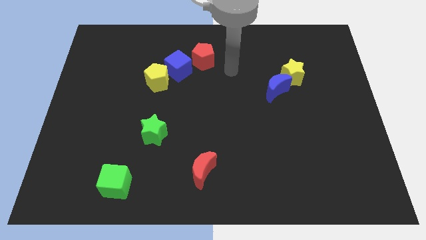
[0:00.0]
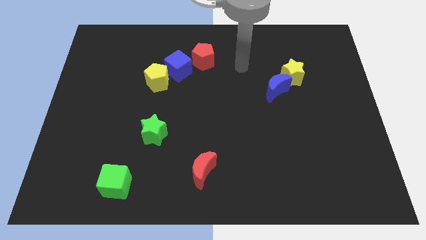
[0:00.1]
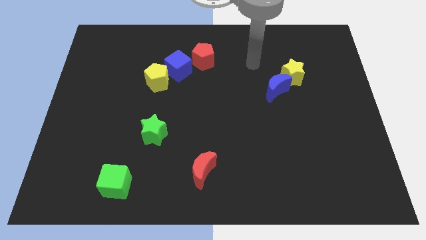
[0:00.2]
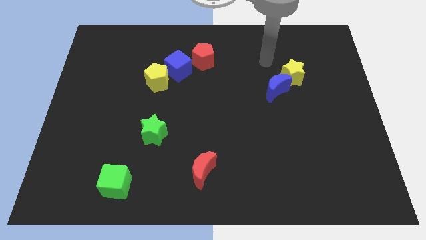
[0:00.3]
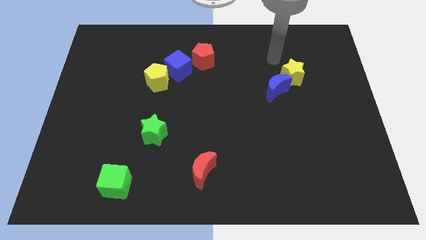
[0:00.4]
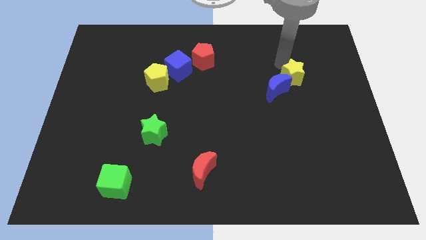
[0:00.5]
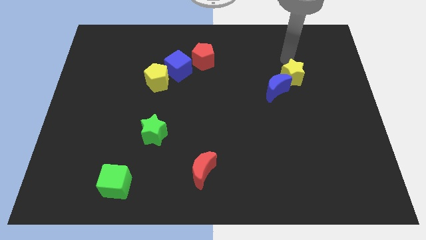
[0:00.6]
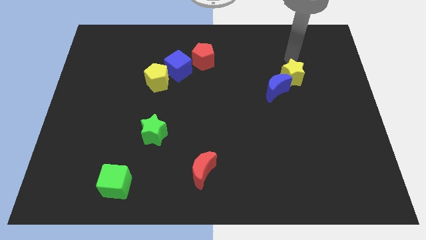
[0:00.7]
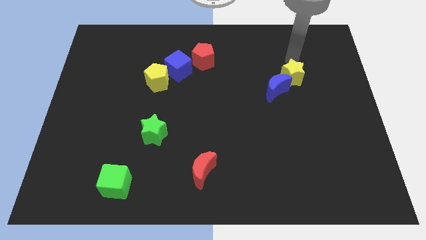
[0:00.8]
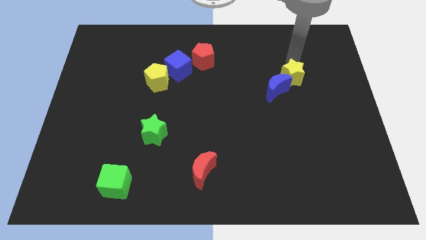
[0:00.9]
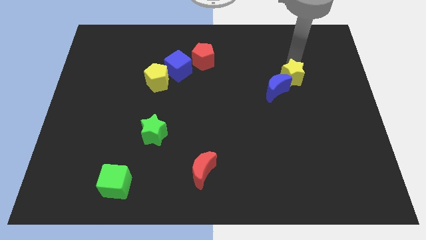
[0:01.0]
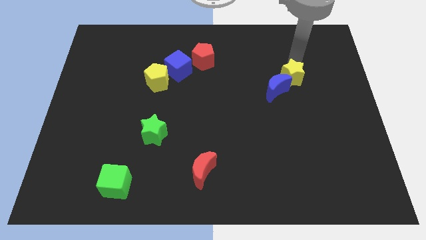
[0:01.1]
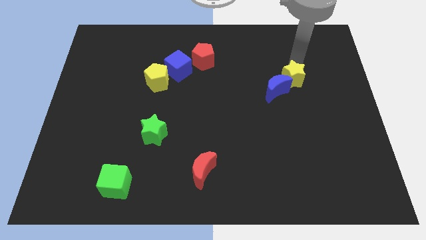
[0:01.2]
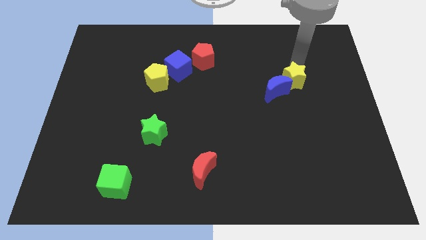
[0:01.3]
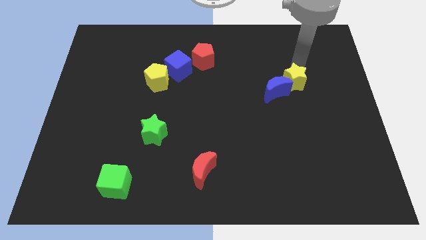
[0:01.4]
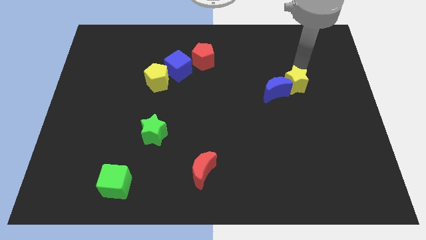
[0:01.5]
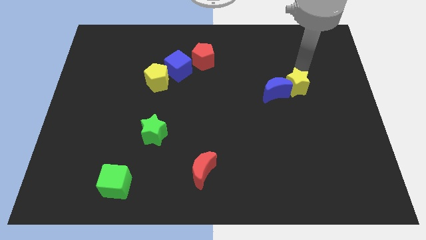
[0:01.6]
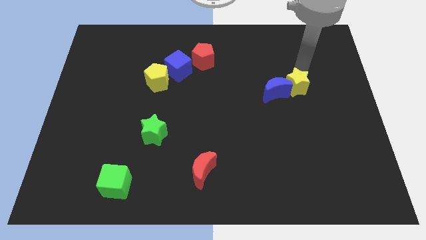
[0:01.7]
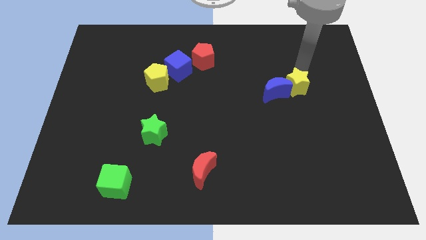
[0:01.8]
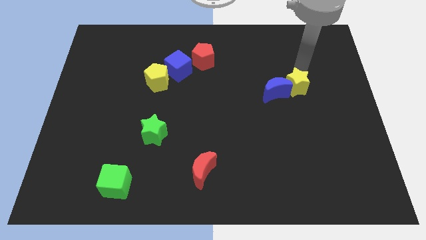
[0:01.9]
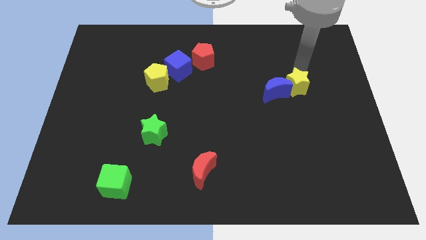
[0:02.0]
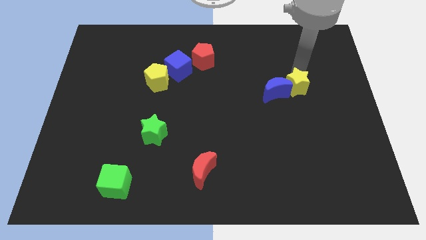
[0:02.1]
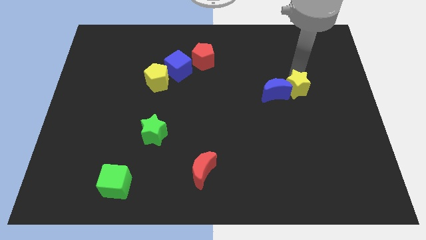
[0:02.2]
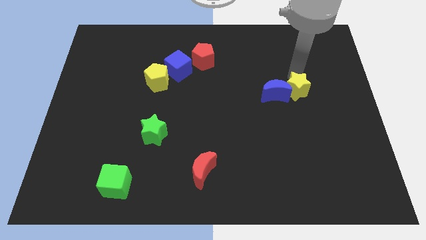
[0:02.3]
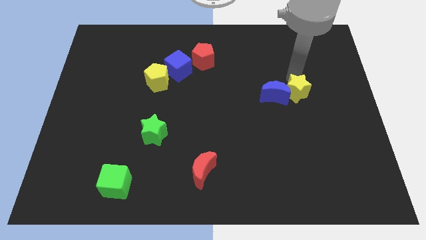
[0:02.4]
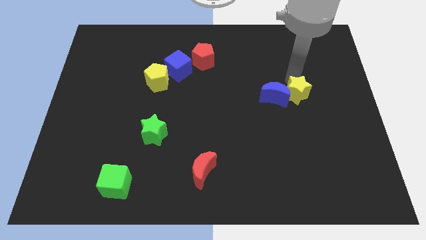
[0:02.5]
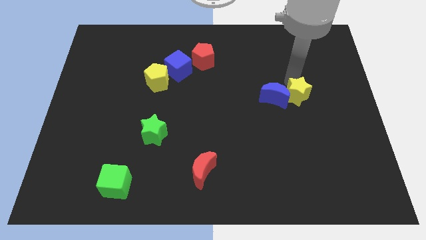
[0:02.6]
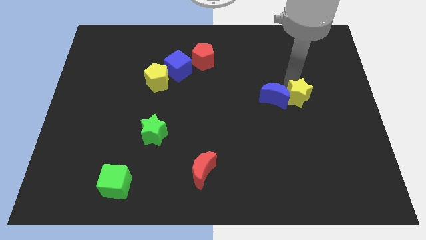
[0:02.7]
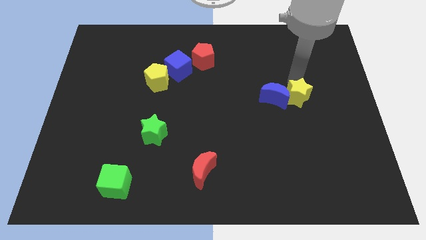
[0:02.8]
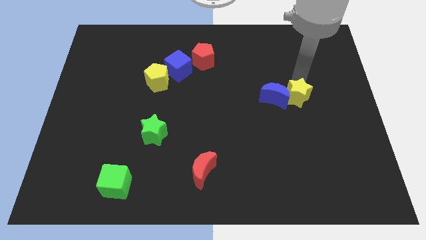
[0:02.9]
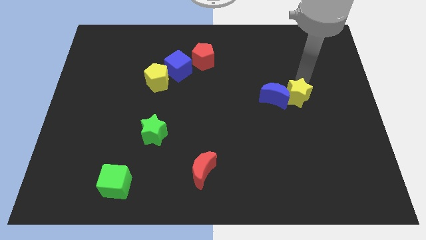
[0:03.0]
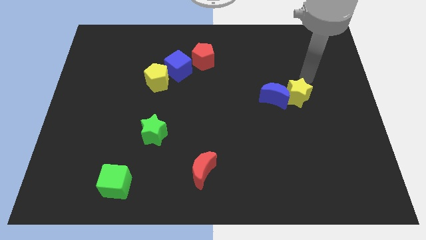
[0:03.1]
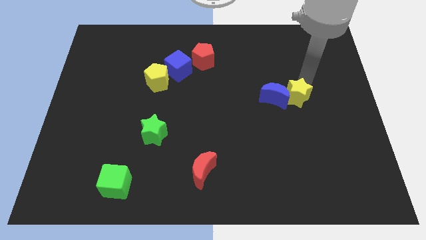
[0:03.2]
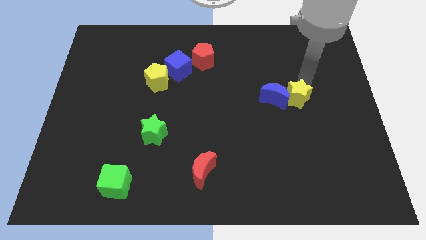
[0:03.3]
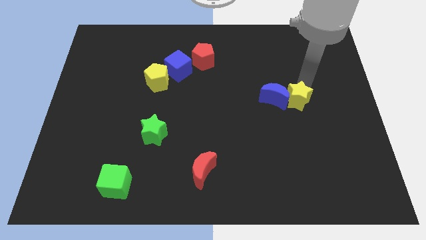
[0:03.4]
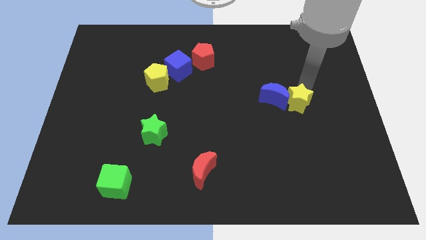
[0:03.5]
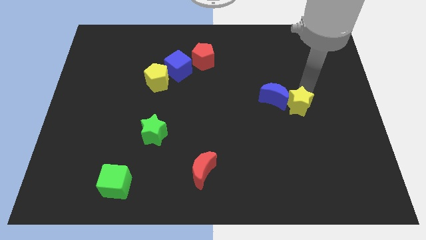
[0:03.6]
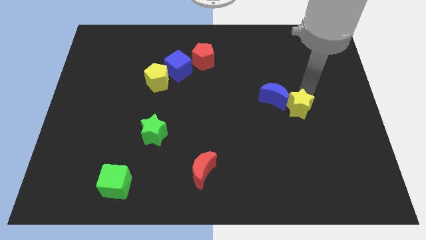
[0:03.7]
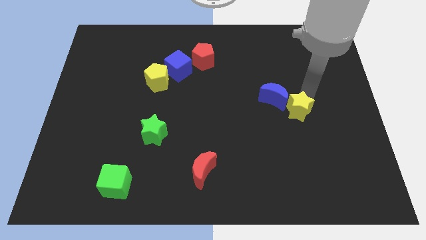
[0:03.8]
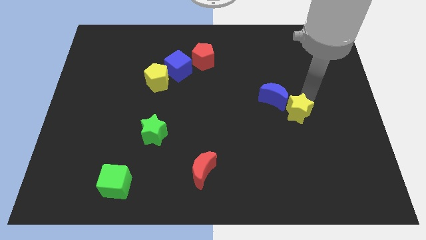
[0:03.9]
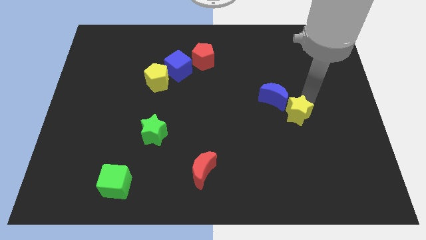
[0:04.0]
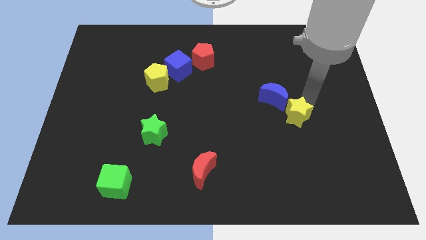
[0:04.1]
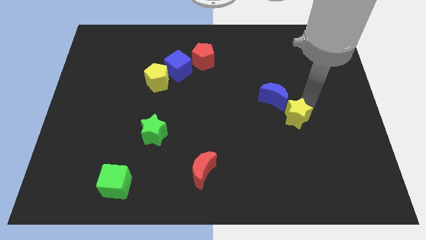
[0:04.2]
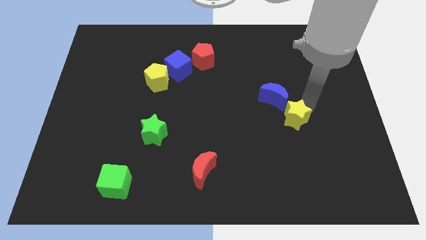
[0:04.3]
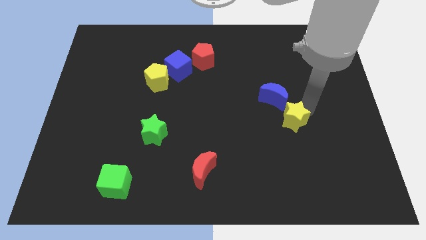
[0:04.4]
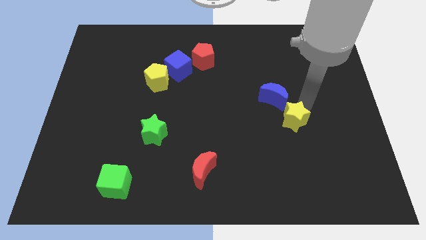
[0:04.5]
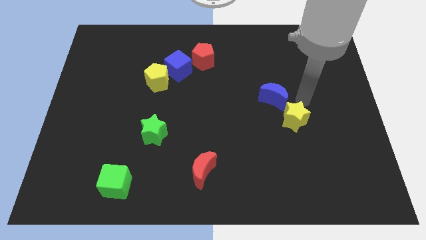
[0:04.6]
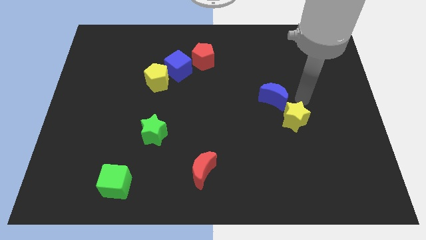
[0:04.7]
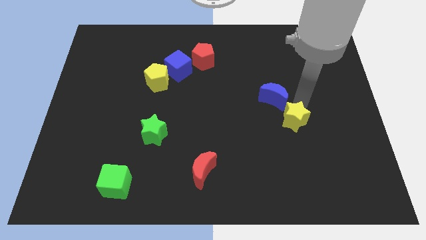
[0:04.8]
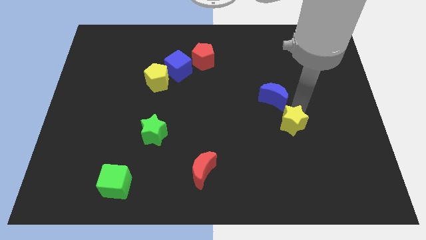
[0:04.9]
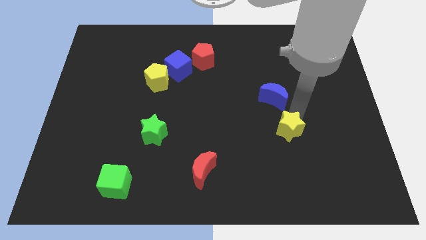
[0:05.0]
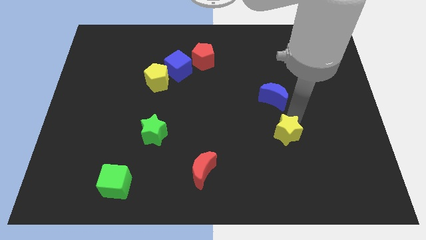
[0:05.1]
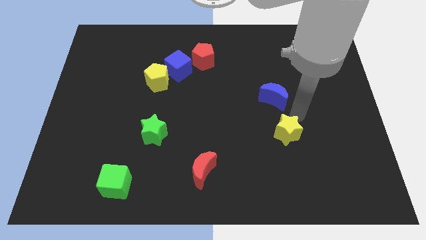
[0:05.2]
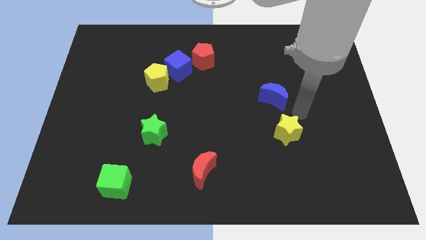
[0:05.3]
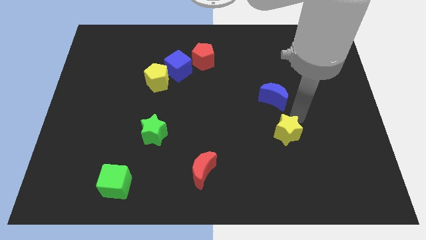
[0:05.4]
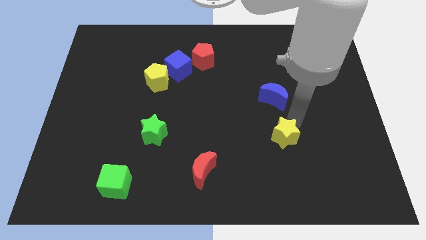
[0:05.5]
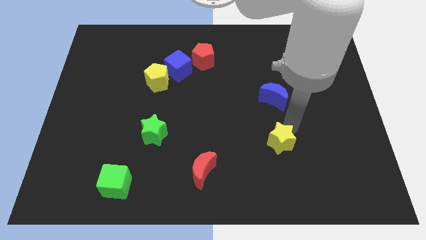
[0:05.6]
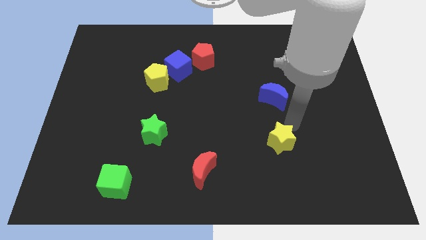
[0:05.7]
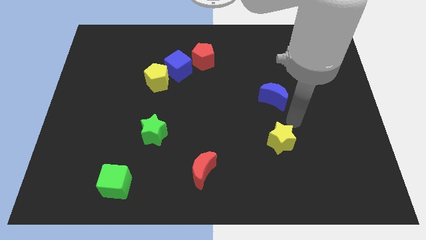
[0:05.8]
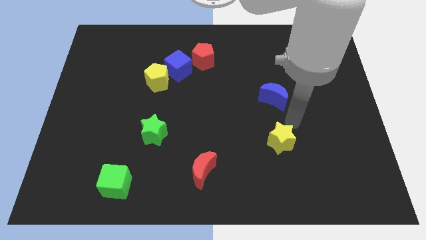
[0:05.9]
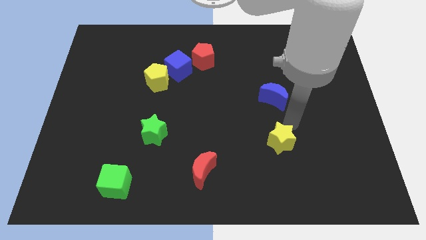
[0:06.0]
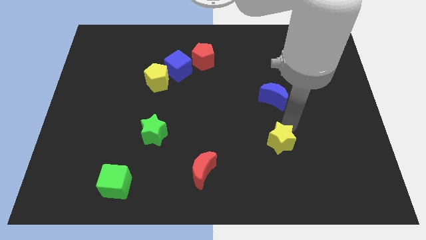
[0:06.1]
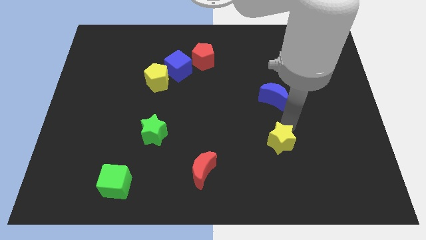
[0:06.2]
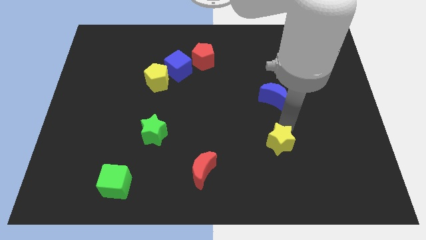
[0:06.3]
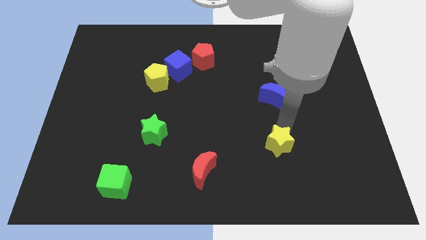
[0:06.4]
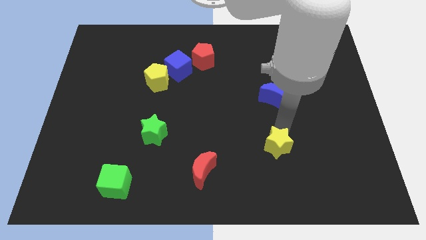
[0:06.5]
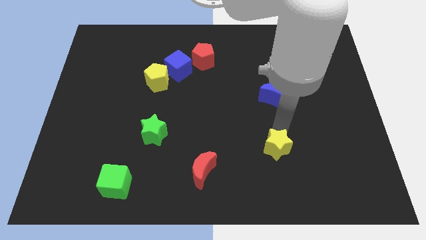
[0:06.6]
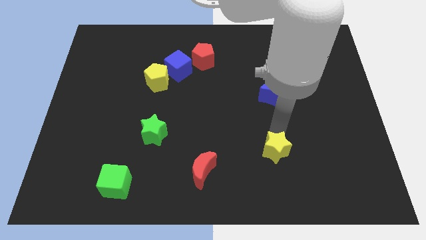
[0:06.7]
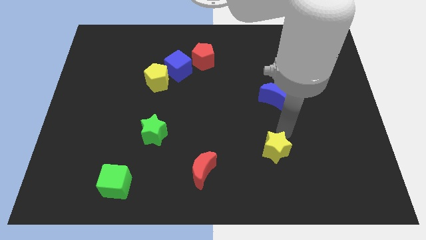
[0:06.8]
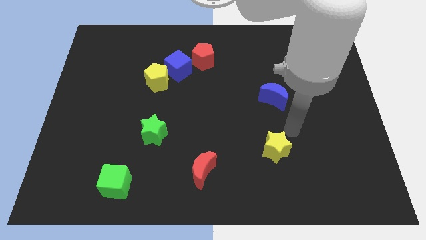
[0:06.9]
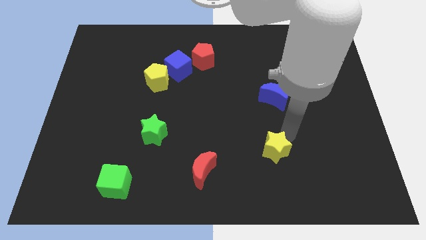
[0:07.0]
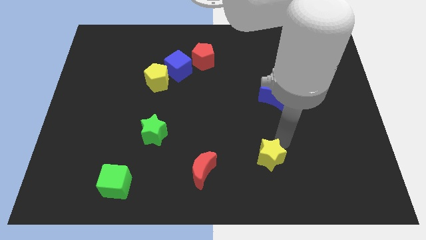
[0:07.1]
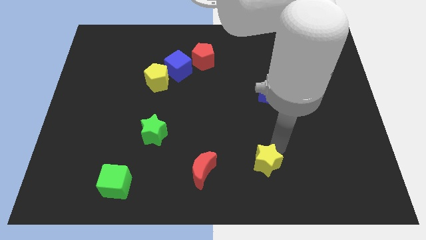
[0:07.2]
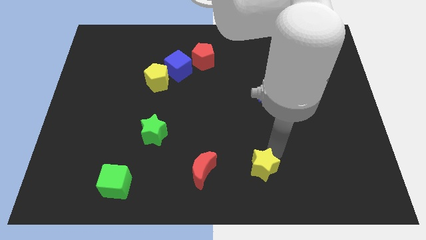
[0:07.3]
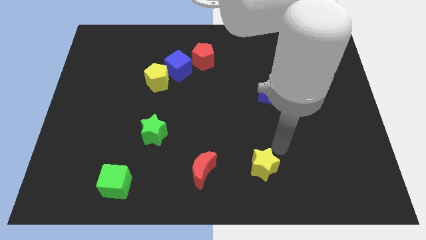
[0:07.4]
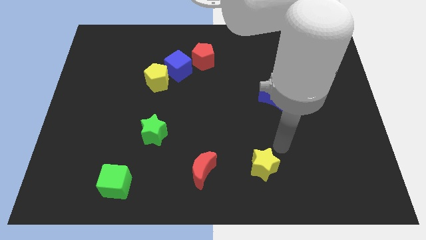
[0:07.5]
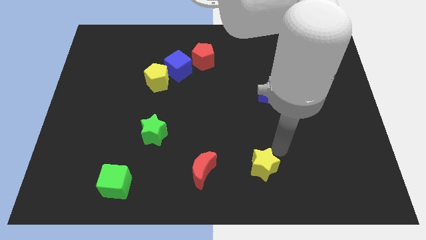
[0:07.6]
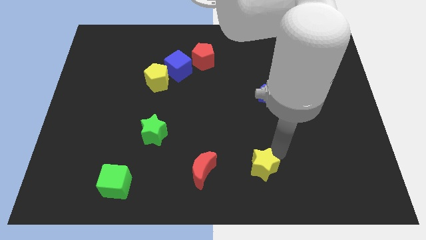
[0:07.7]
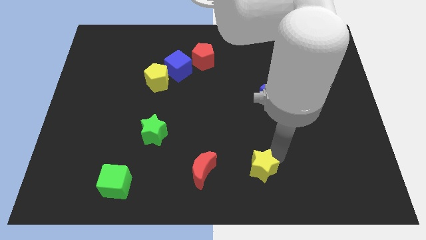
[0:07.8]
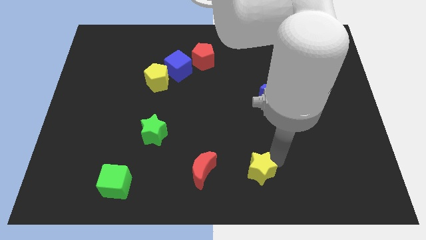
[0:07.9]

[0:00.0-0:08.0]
move the yellow star to the bottom
